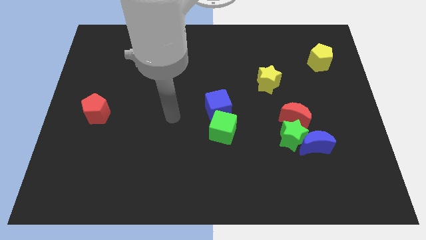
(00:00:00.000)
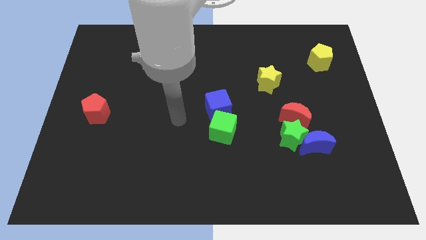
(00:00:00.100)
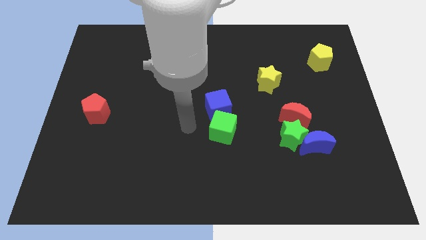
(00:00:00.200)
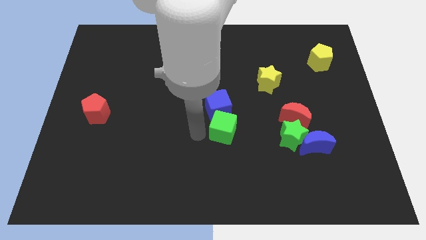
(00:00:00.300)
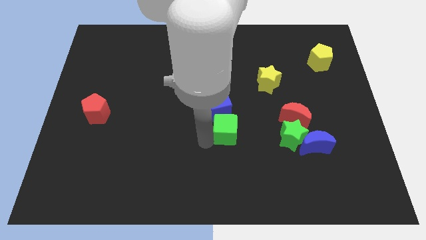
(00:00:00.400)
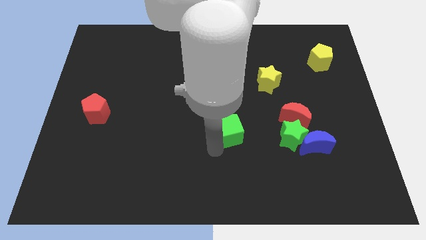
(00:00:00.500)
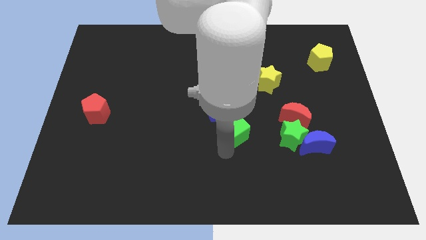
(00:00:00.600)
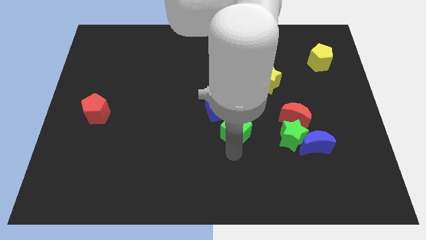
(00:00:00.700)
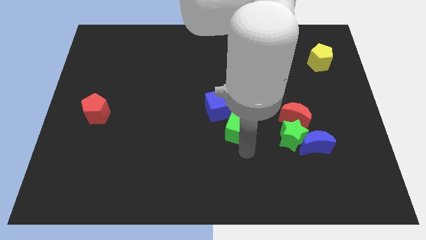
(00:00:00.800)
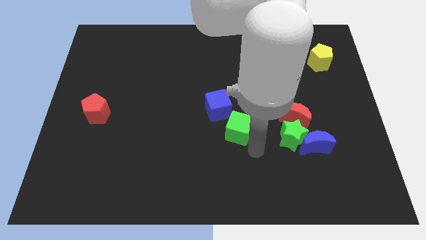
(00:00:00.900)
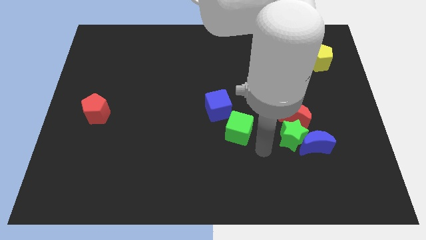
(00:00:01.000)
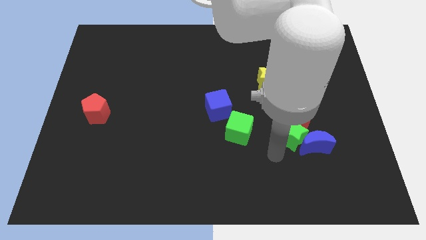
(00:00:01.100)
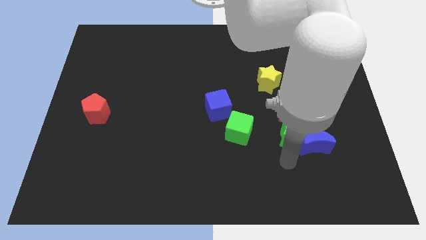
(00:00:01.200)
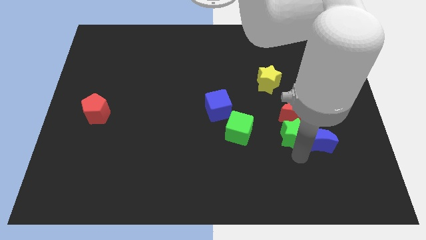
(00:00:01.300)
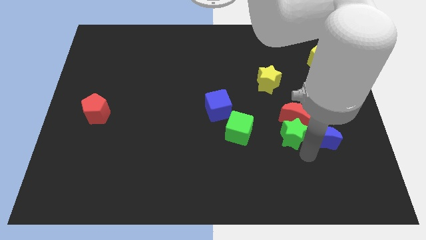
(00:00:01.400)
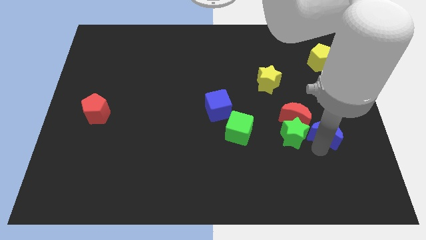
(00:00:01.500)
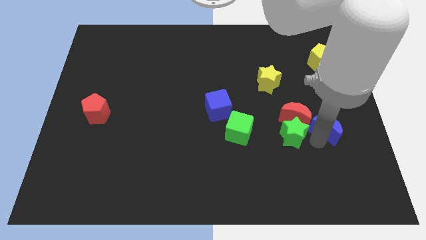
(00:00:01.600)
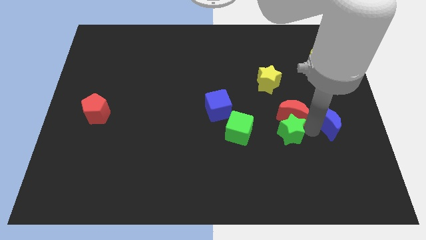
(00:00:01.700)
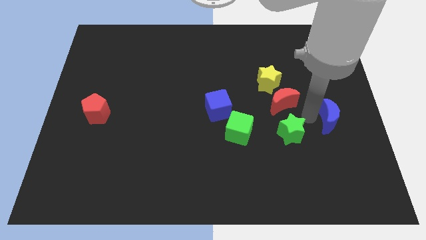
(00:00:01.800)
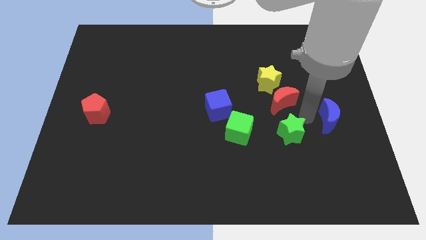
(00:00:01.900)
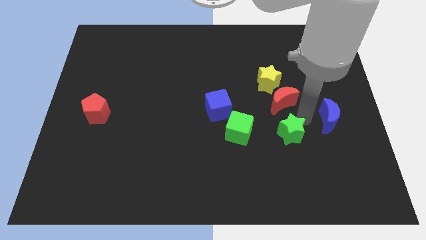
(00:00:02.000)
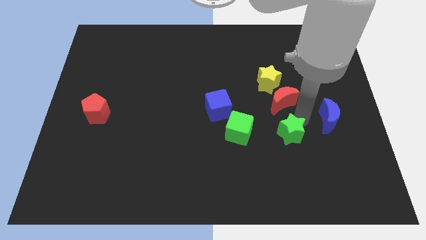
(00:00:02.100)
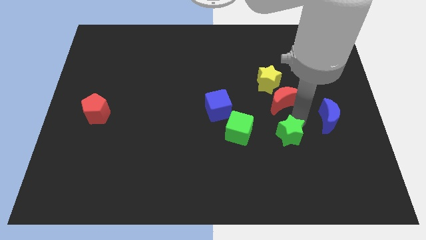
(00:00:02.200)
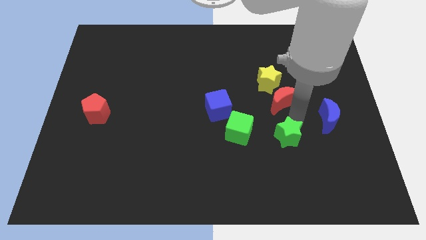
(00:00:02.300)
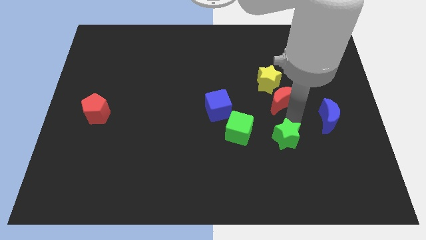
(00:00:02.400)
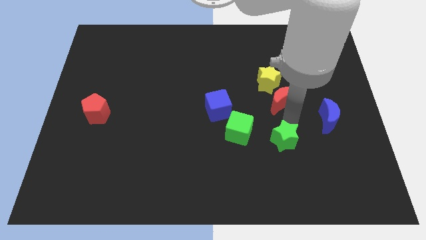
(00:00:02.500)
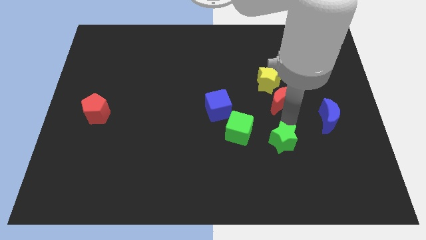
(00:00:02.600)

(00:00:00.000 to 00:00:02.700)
separate the green star from the blue moon and red moon

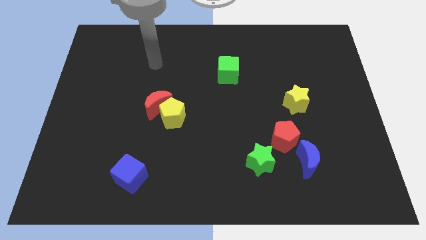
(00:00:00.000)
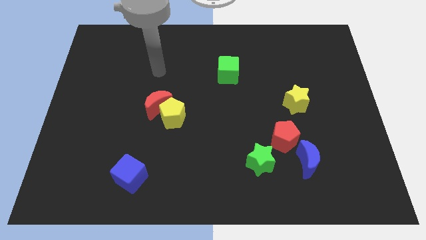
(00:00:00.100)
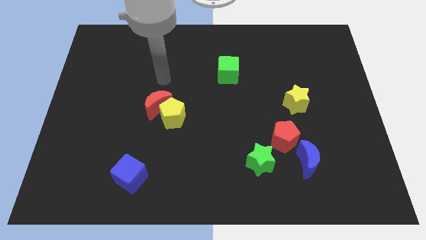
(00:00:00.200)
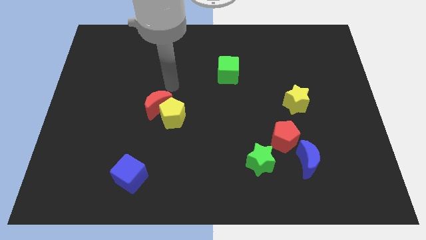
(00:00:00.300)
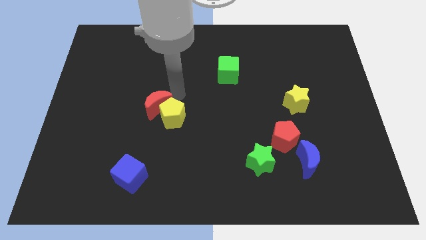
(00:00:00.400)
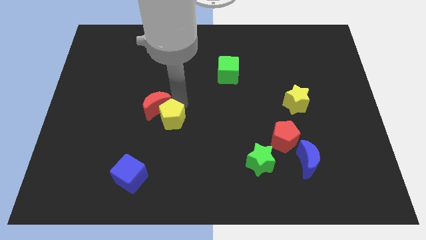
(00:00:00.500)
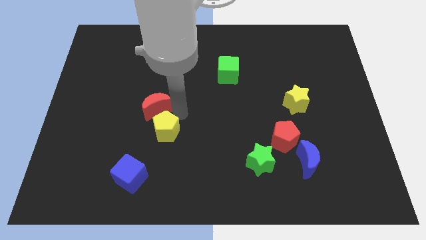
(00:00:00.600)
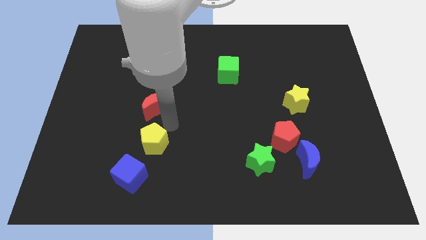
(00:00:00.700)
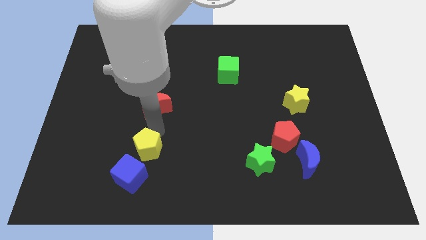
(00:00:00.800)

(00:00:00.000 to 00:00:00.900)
move the red moon away from the yellow pentagon

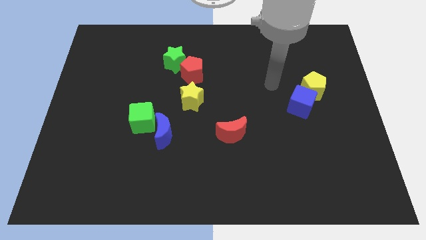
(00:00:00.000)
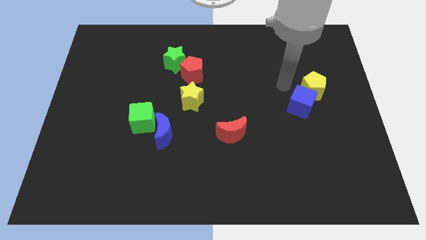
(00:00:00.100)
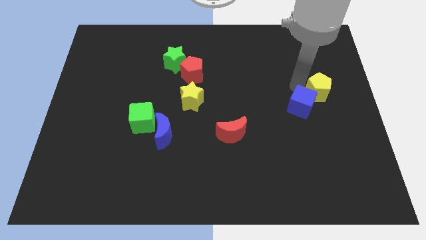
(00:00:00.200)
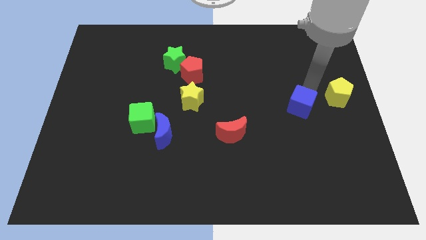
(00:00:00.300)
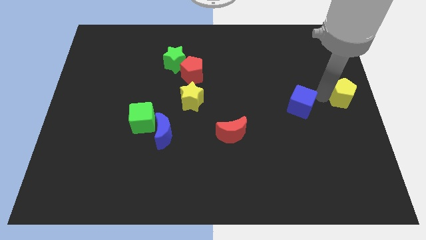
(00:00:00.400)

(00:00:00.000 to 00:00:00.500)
move the blue cube away from the yellow pentagon

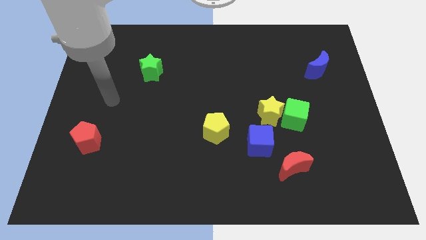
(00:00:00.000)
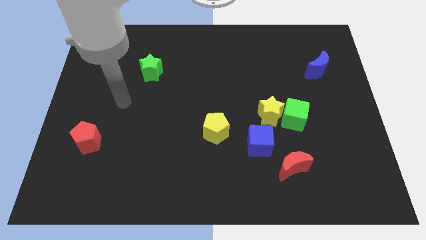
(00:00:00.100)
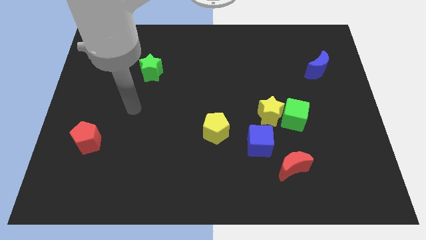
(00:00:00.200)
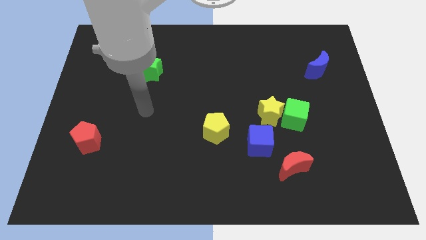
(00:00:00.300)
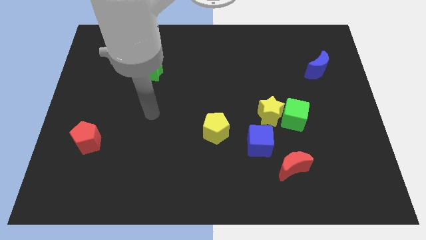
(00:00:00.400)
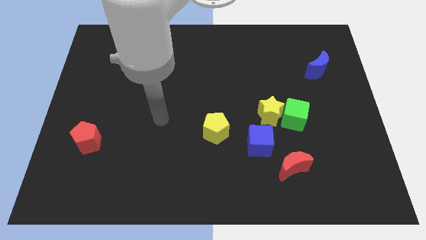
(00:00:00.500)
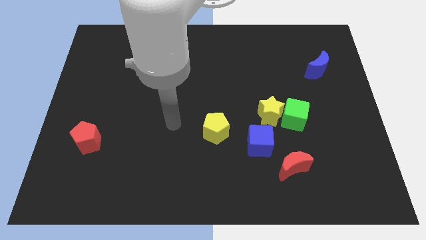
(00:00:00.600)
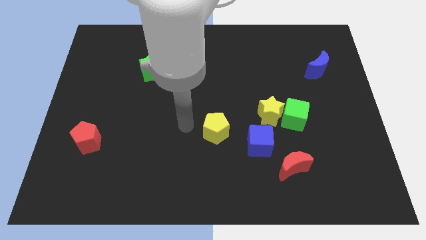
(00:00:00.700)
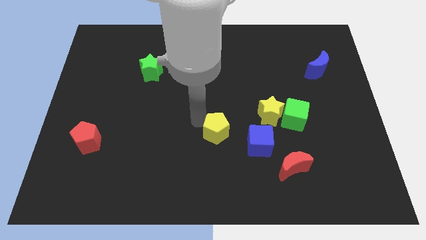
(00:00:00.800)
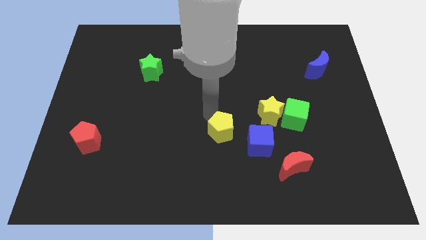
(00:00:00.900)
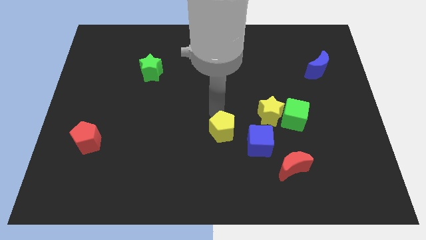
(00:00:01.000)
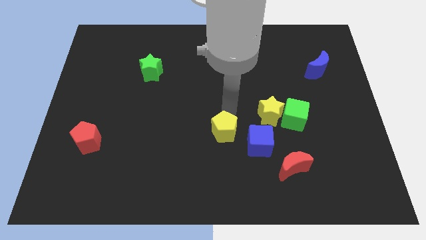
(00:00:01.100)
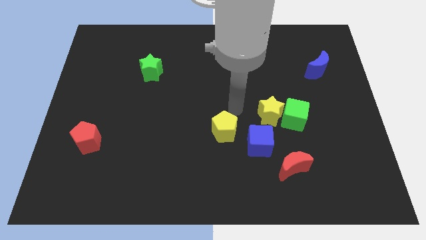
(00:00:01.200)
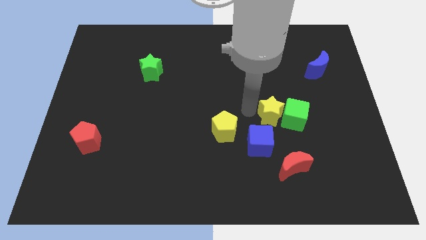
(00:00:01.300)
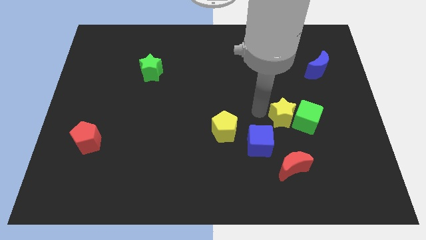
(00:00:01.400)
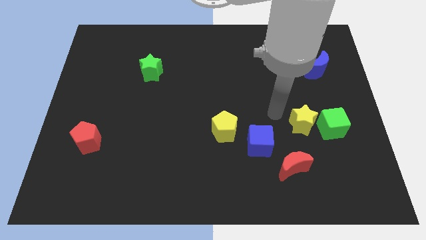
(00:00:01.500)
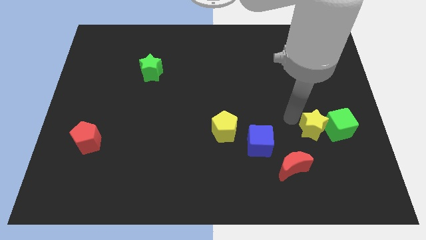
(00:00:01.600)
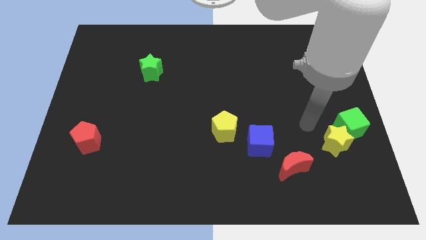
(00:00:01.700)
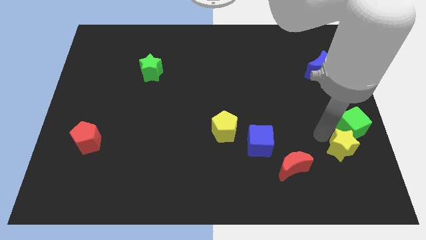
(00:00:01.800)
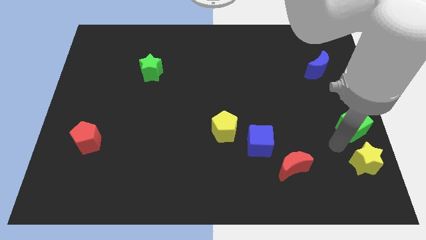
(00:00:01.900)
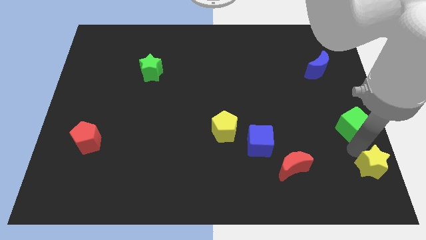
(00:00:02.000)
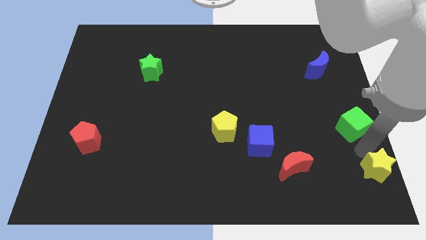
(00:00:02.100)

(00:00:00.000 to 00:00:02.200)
move the green cube away from the yellow star

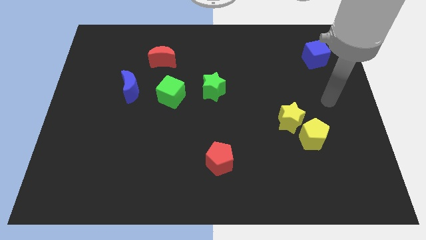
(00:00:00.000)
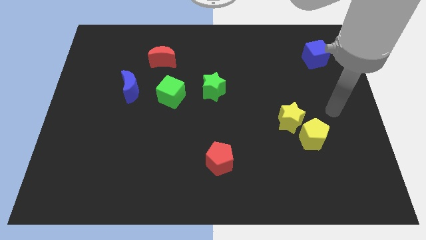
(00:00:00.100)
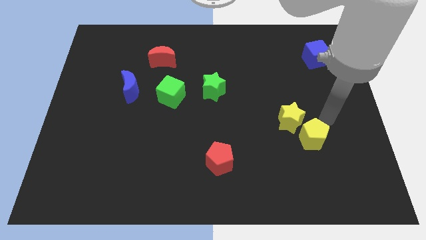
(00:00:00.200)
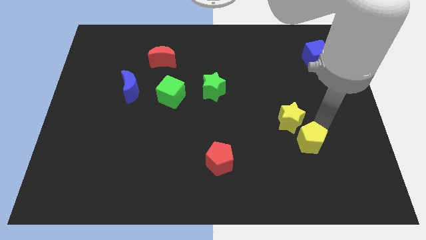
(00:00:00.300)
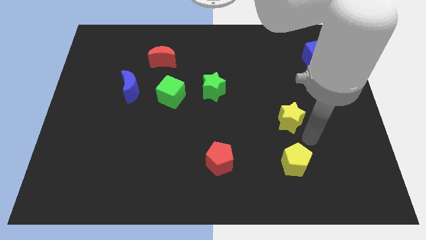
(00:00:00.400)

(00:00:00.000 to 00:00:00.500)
pull the yellow star apart from the yellow pentagon

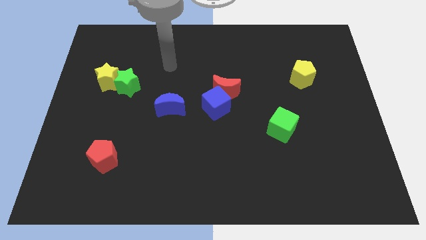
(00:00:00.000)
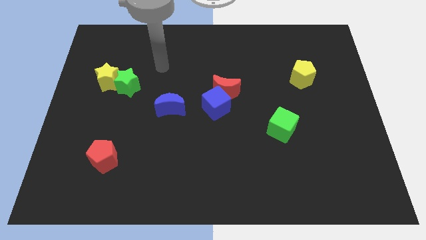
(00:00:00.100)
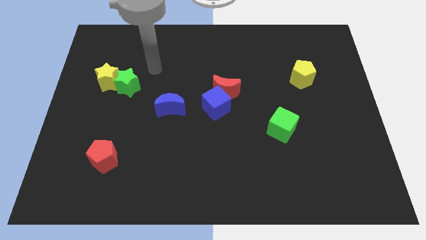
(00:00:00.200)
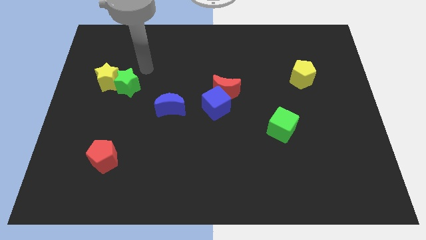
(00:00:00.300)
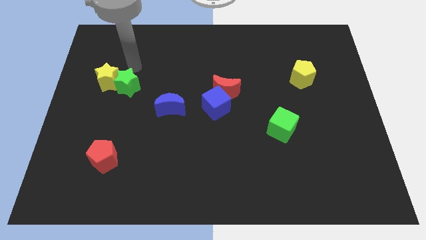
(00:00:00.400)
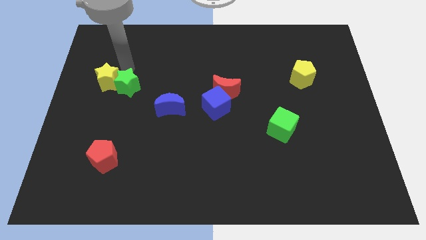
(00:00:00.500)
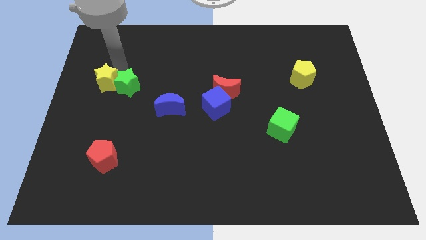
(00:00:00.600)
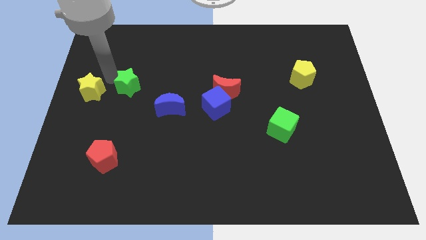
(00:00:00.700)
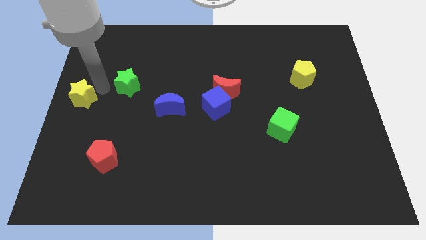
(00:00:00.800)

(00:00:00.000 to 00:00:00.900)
move the green star away from the yellow star

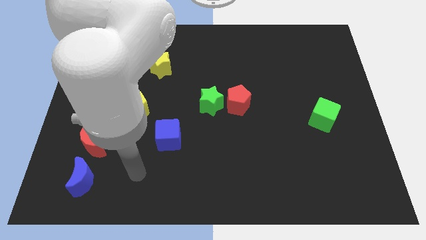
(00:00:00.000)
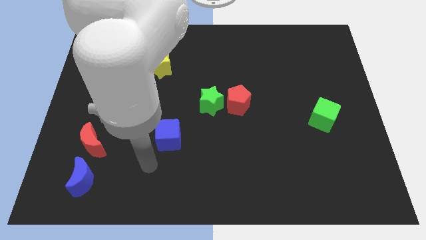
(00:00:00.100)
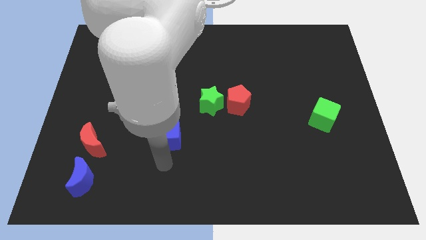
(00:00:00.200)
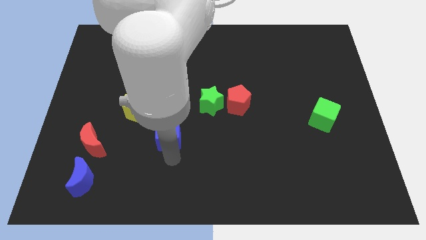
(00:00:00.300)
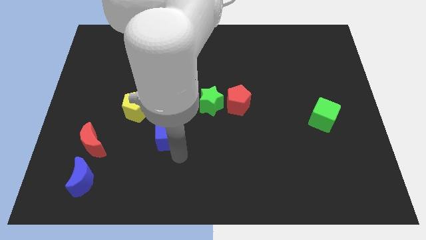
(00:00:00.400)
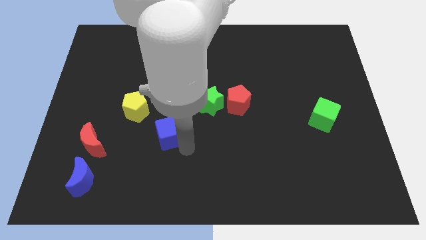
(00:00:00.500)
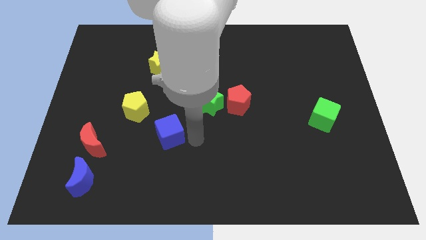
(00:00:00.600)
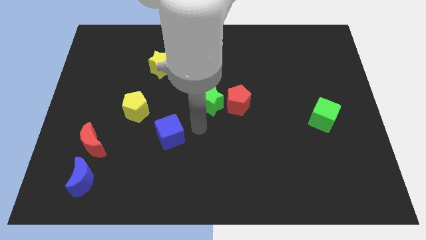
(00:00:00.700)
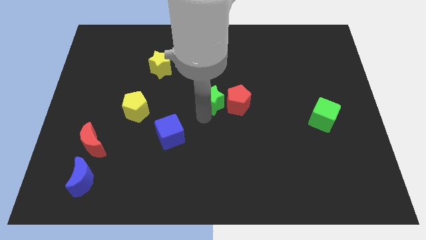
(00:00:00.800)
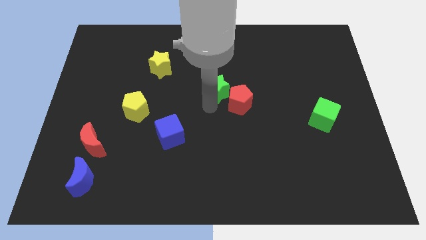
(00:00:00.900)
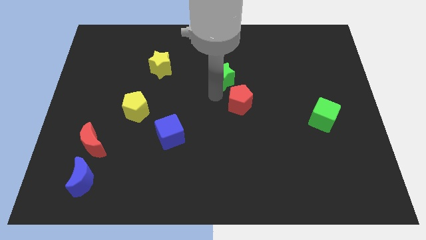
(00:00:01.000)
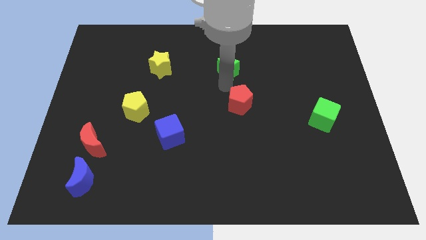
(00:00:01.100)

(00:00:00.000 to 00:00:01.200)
move the red pentagon away from the green star

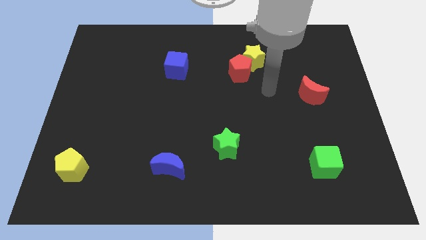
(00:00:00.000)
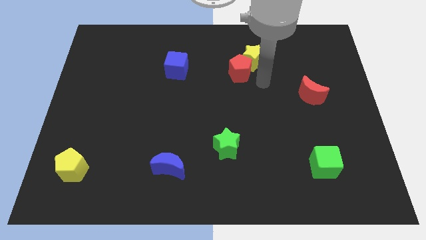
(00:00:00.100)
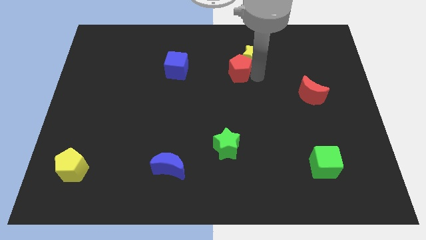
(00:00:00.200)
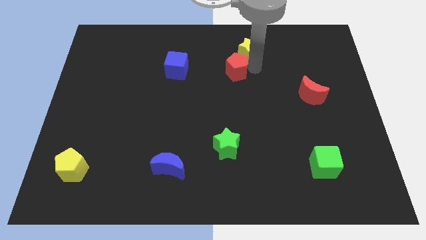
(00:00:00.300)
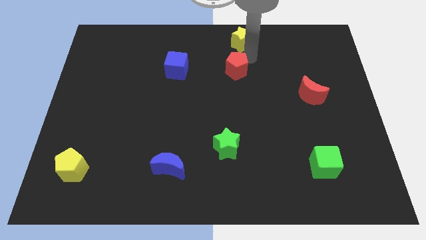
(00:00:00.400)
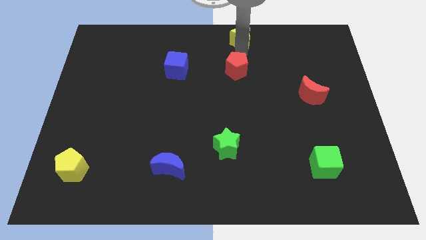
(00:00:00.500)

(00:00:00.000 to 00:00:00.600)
separate the red pentagon from the yellow star
